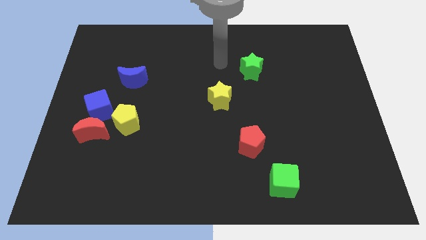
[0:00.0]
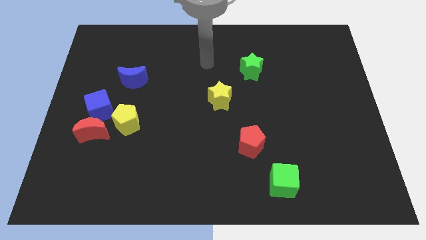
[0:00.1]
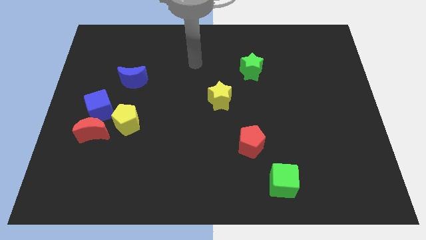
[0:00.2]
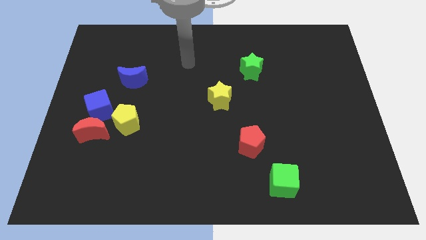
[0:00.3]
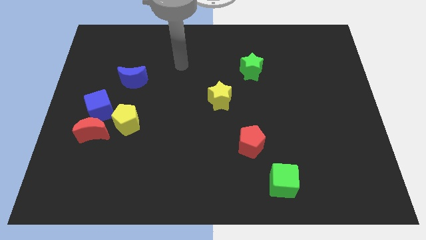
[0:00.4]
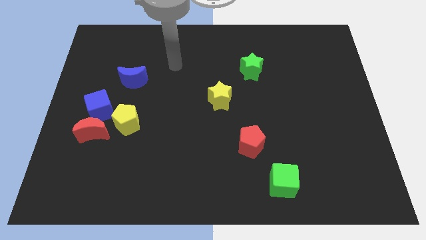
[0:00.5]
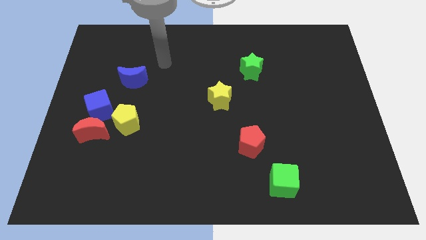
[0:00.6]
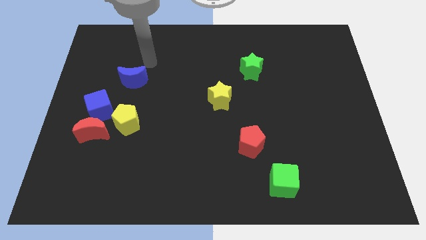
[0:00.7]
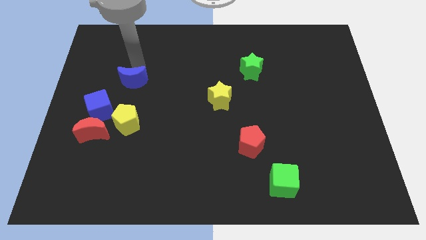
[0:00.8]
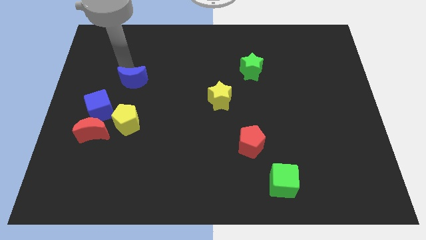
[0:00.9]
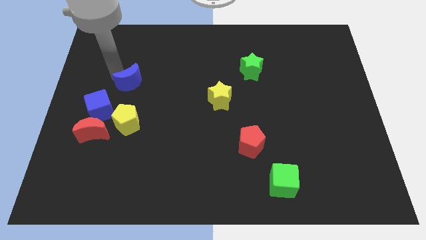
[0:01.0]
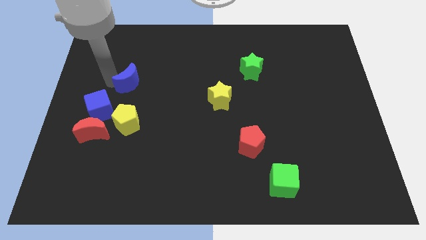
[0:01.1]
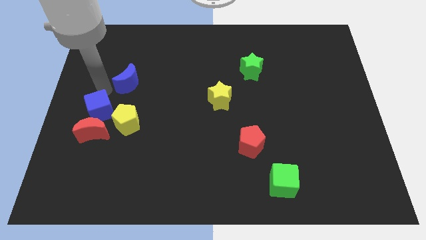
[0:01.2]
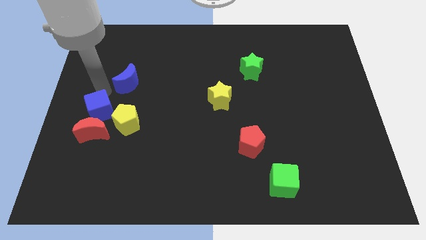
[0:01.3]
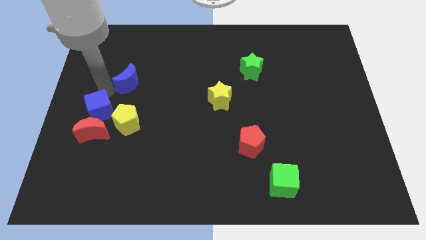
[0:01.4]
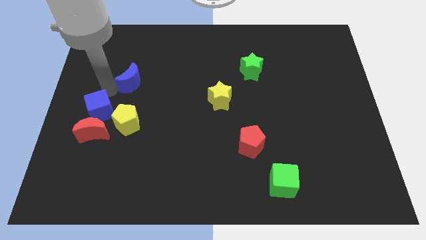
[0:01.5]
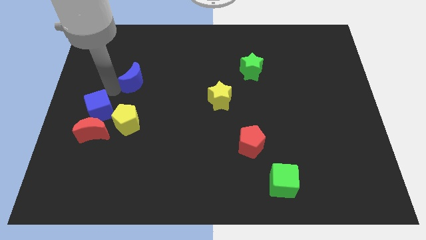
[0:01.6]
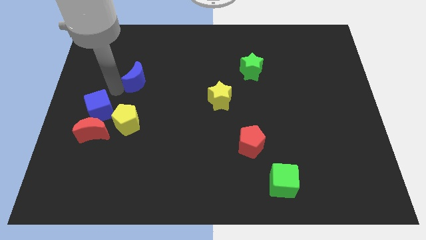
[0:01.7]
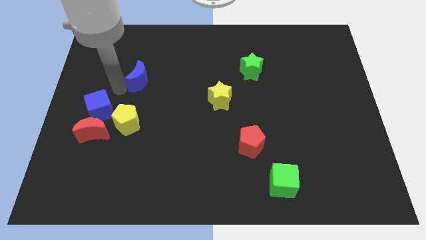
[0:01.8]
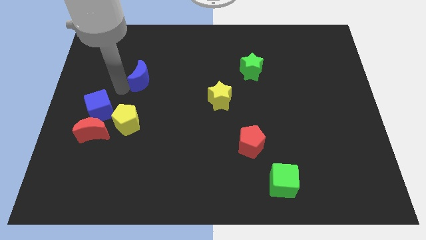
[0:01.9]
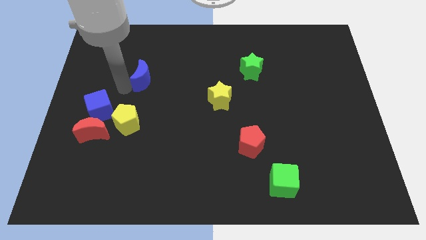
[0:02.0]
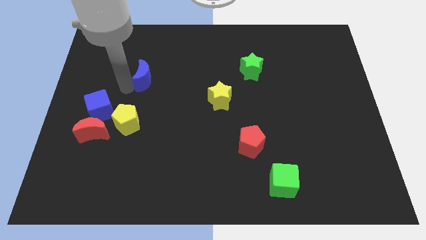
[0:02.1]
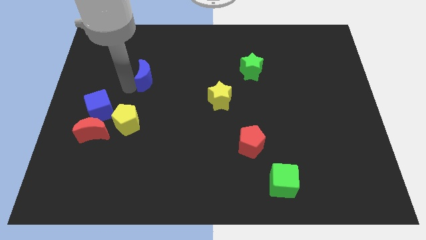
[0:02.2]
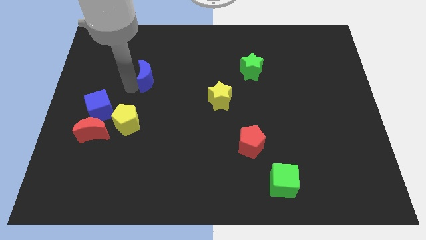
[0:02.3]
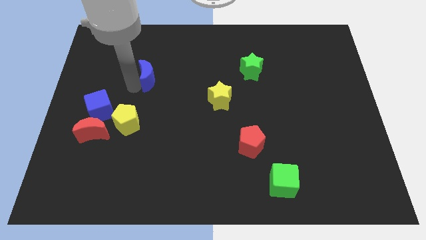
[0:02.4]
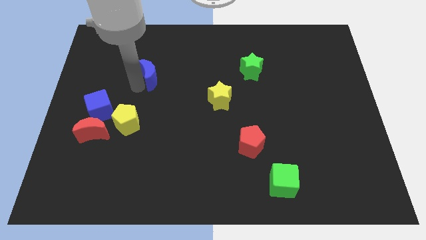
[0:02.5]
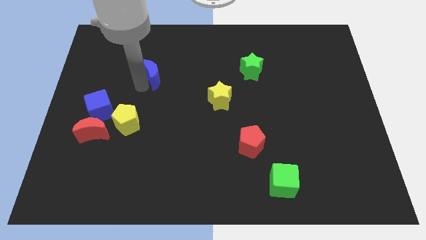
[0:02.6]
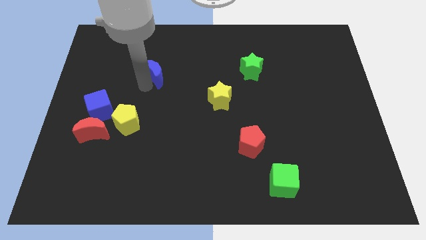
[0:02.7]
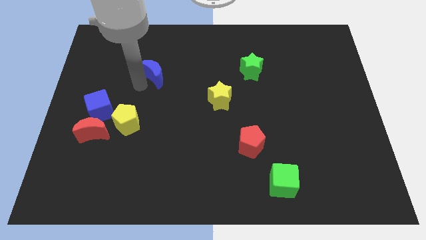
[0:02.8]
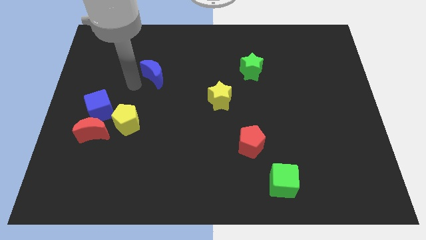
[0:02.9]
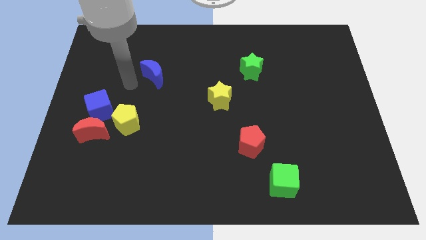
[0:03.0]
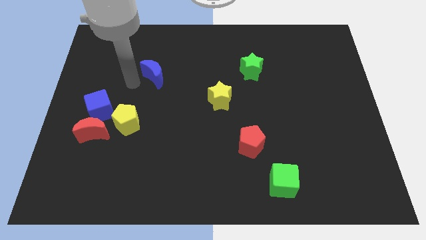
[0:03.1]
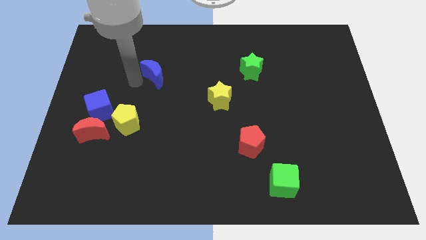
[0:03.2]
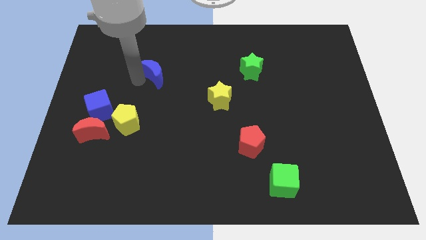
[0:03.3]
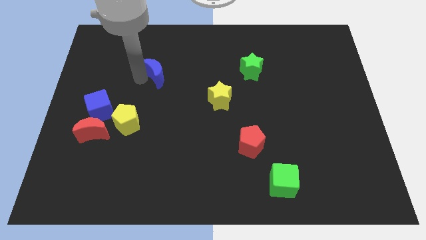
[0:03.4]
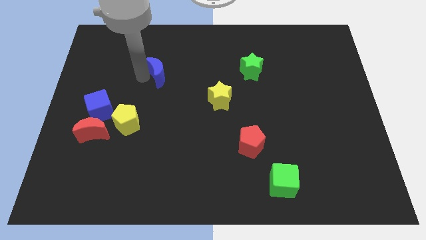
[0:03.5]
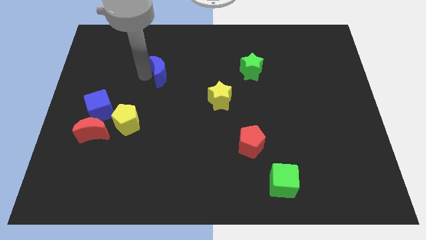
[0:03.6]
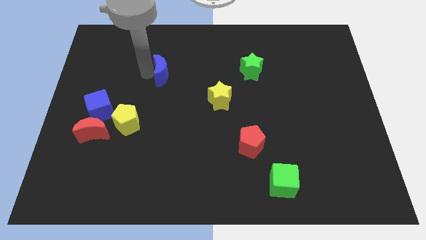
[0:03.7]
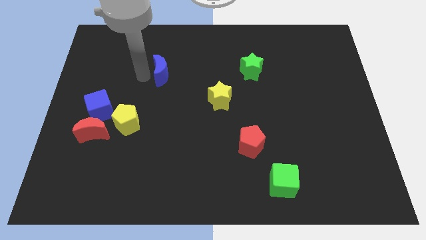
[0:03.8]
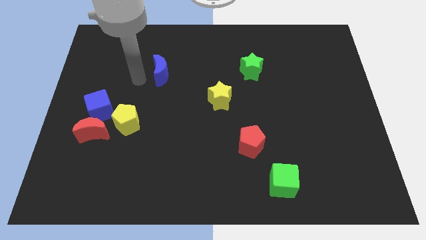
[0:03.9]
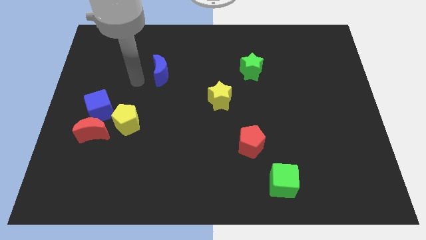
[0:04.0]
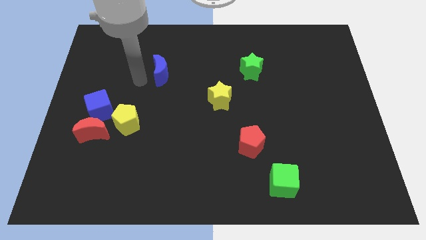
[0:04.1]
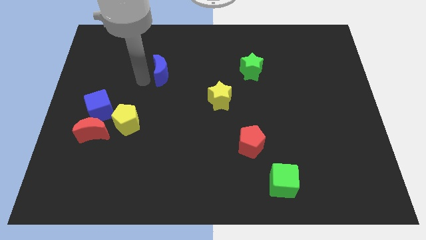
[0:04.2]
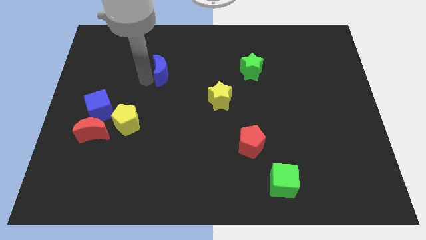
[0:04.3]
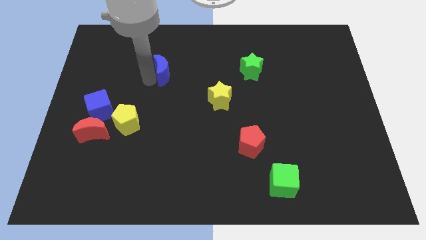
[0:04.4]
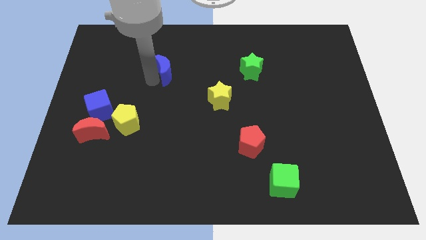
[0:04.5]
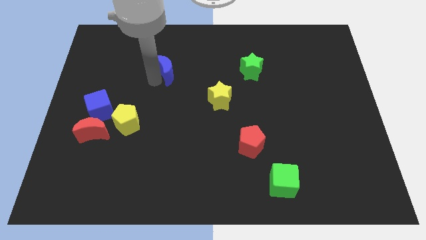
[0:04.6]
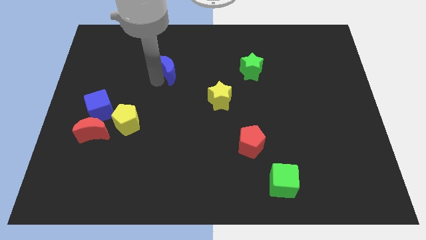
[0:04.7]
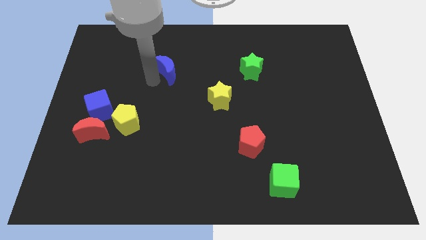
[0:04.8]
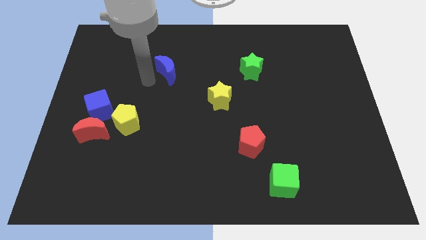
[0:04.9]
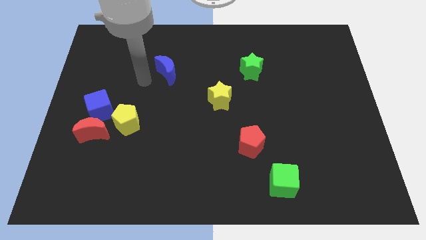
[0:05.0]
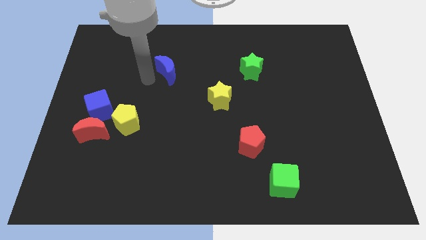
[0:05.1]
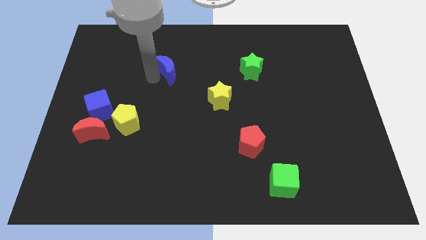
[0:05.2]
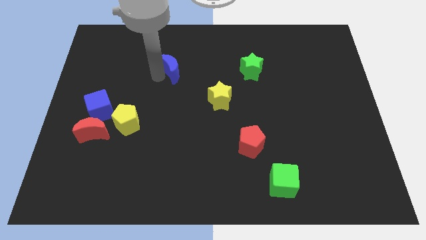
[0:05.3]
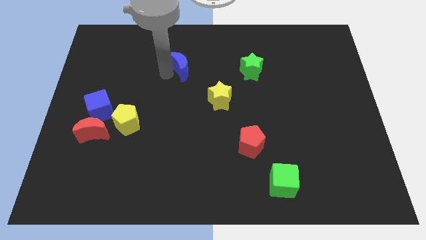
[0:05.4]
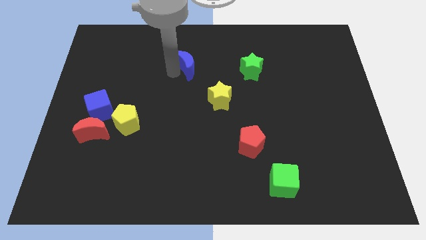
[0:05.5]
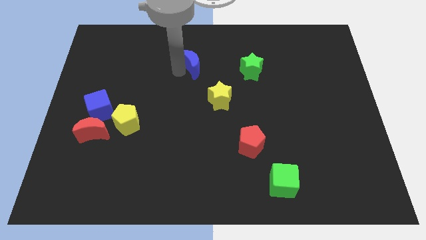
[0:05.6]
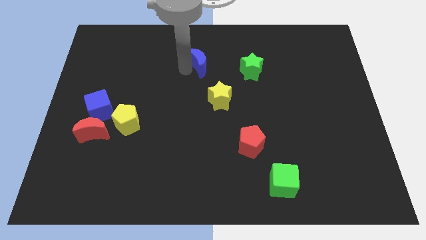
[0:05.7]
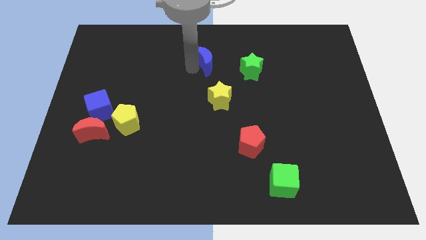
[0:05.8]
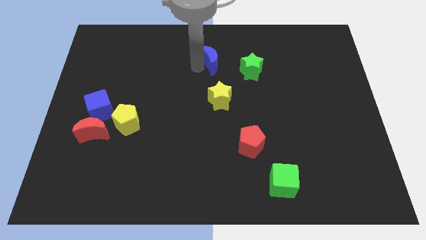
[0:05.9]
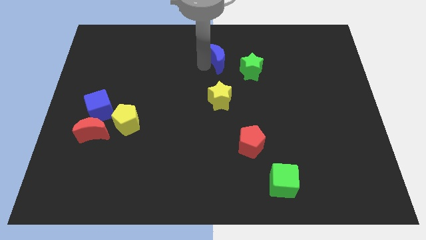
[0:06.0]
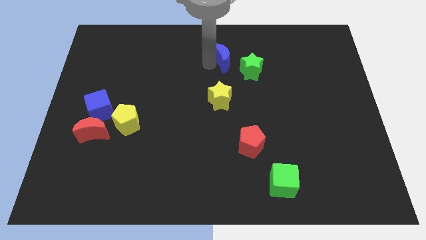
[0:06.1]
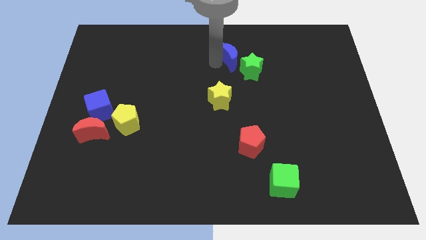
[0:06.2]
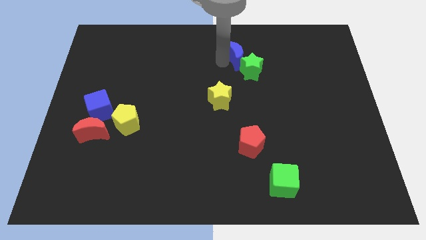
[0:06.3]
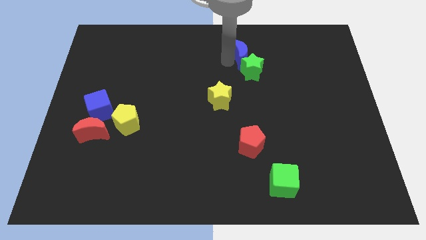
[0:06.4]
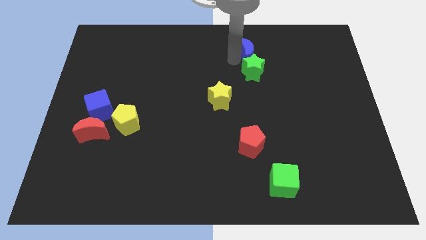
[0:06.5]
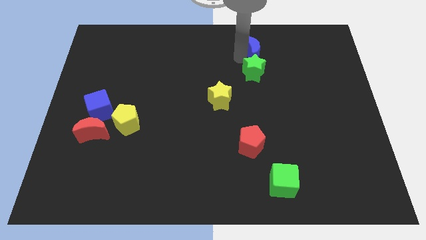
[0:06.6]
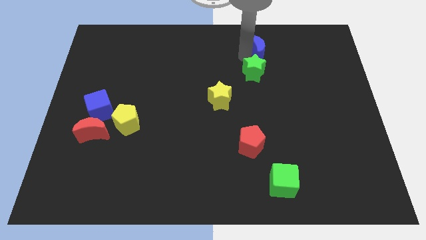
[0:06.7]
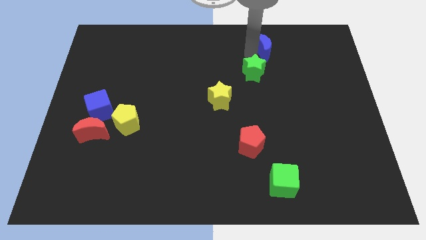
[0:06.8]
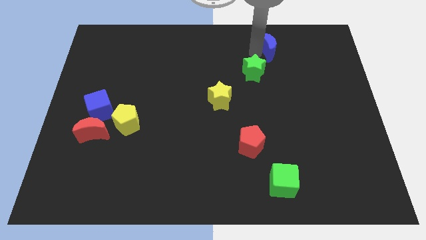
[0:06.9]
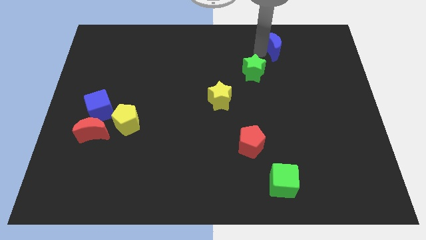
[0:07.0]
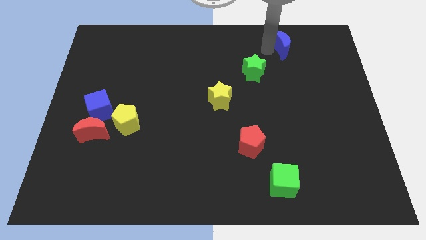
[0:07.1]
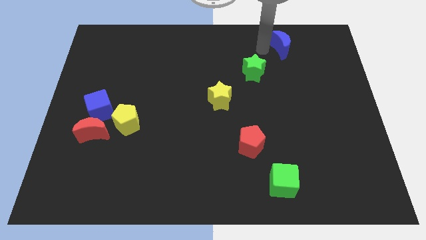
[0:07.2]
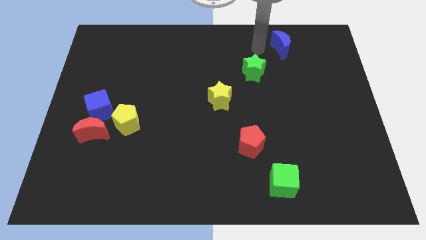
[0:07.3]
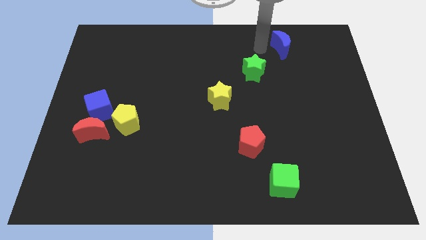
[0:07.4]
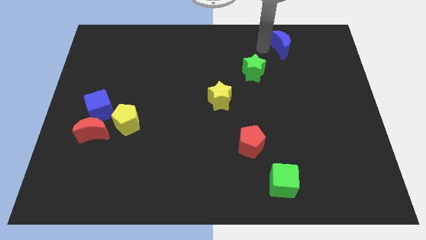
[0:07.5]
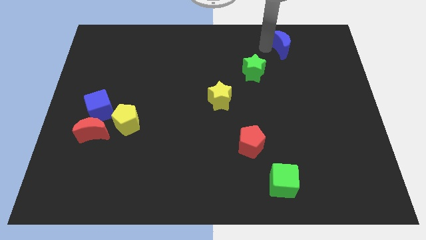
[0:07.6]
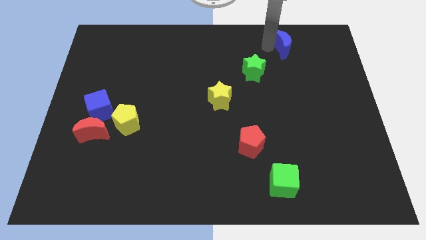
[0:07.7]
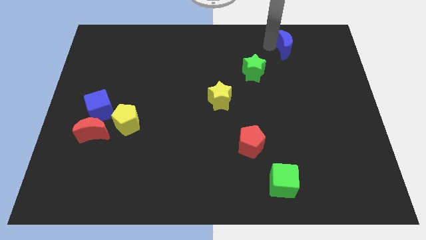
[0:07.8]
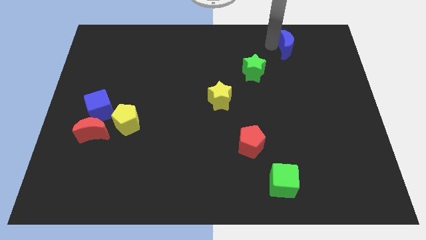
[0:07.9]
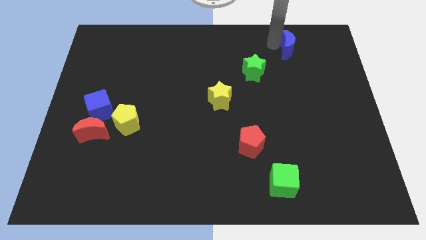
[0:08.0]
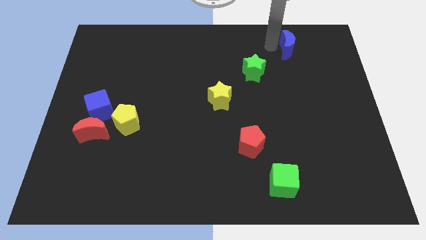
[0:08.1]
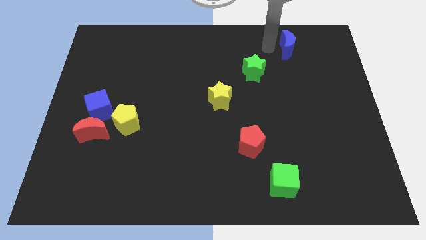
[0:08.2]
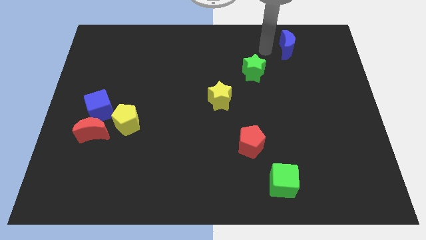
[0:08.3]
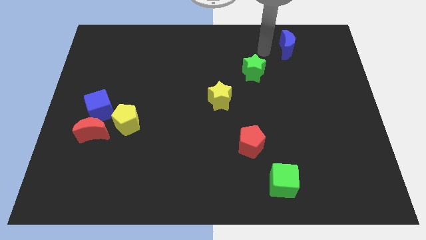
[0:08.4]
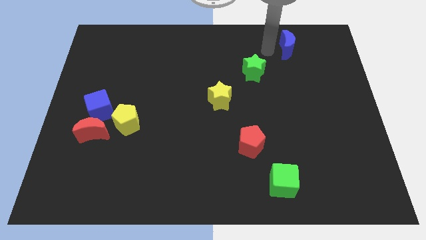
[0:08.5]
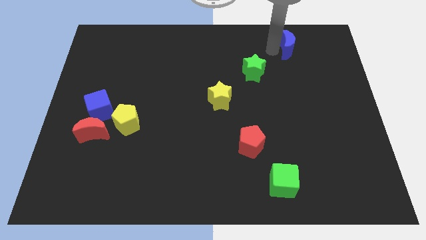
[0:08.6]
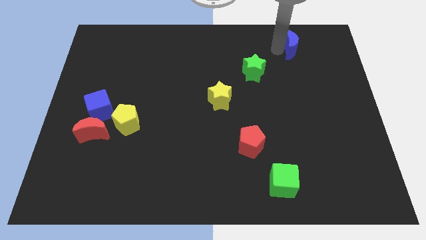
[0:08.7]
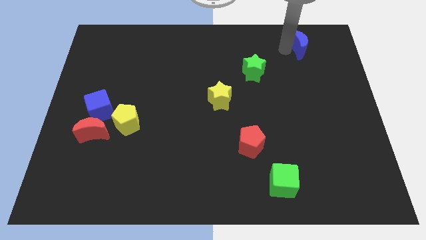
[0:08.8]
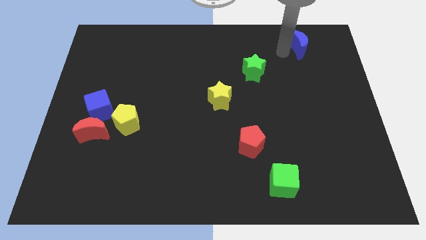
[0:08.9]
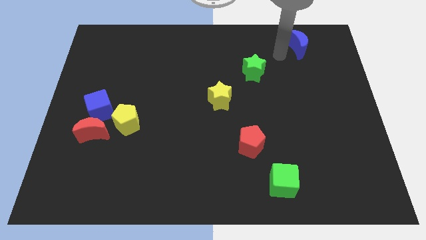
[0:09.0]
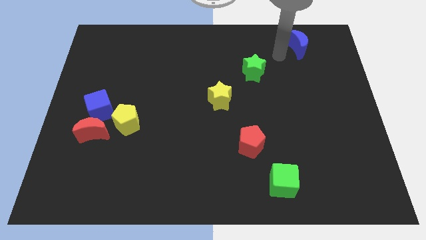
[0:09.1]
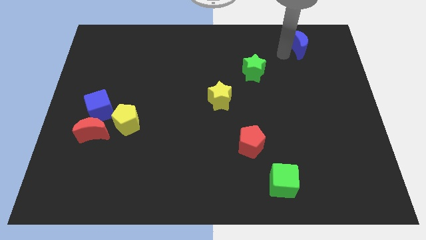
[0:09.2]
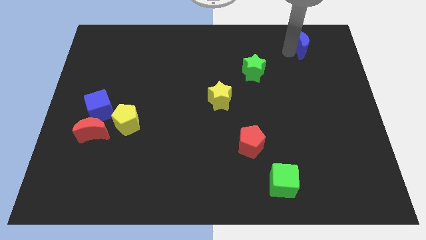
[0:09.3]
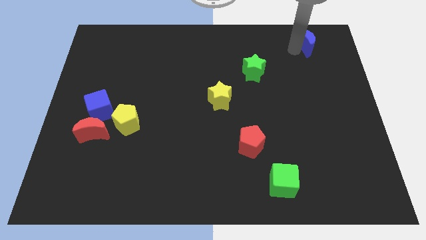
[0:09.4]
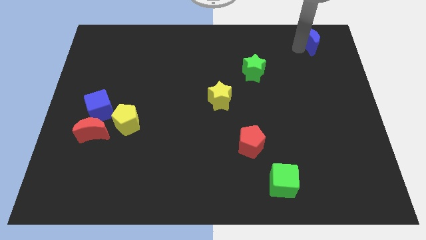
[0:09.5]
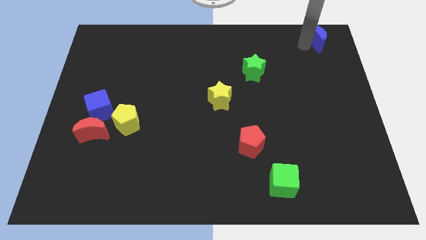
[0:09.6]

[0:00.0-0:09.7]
slide the blue moon to the top right of the board
